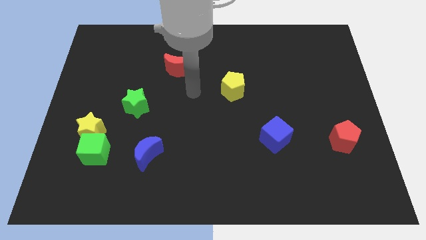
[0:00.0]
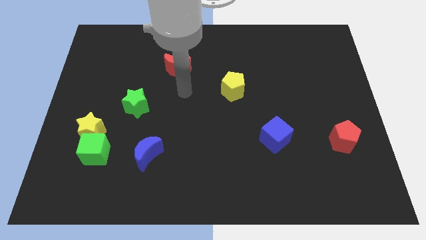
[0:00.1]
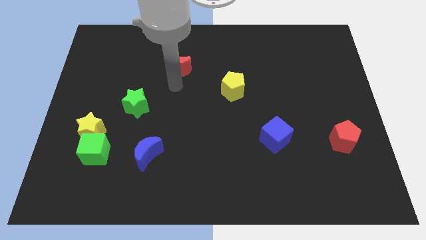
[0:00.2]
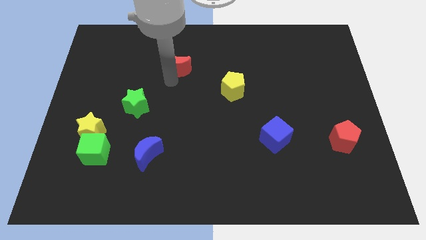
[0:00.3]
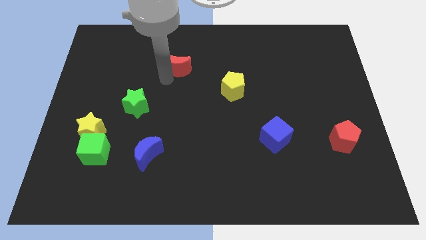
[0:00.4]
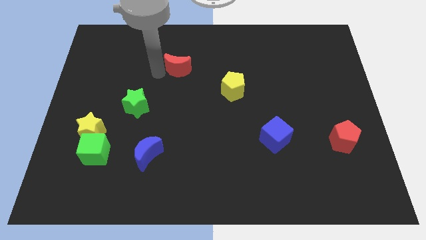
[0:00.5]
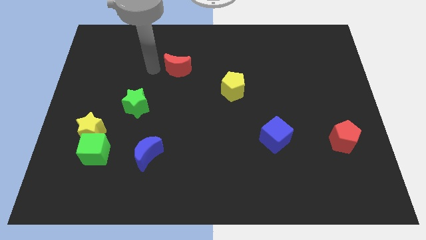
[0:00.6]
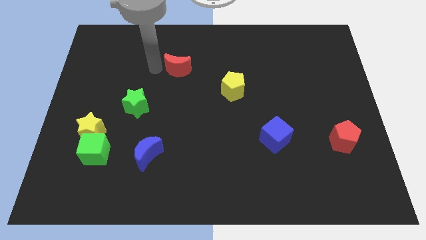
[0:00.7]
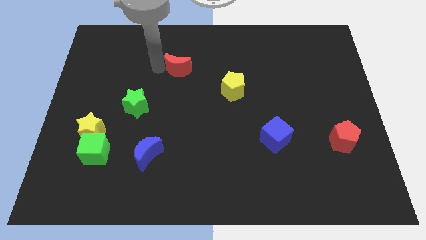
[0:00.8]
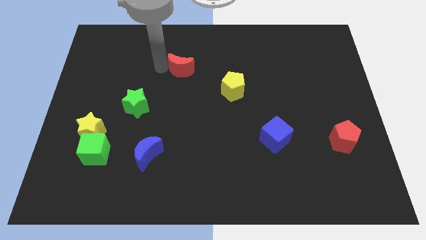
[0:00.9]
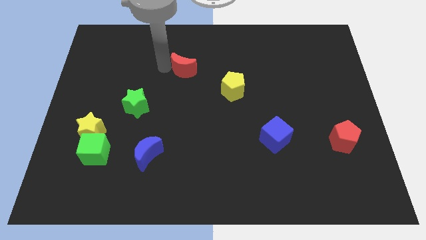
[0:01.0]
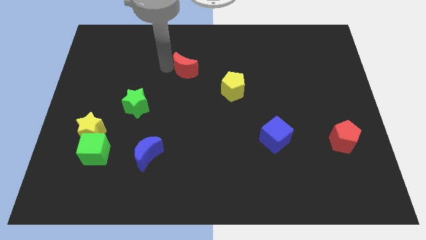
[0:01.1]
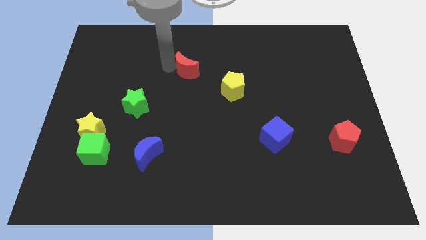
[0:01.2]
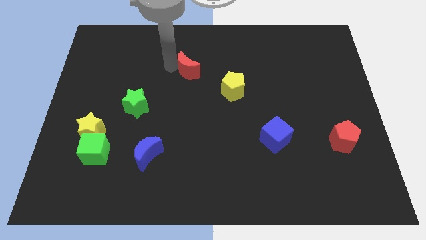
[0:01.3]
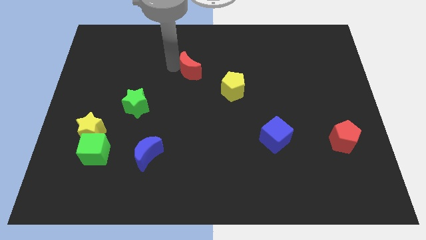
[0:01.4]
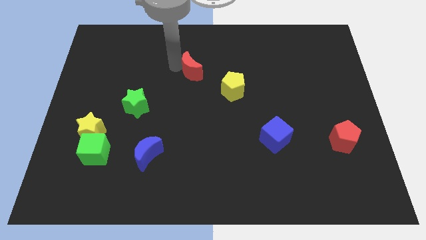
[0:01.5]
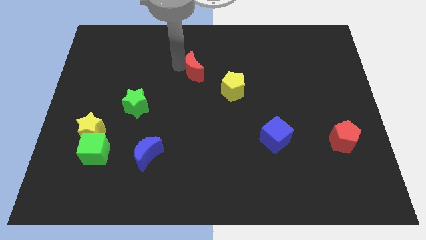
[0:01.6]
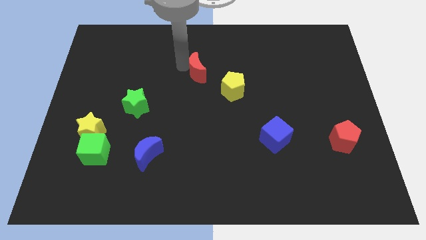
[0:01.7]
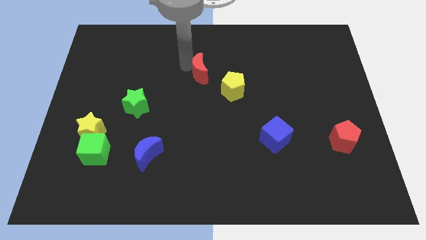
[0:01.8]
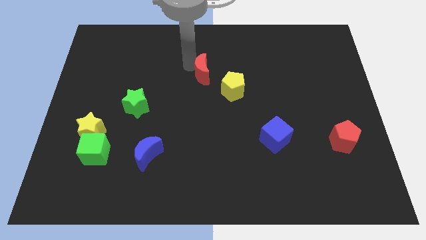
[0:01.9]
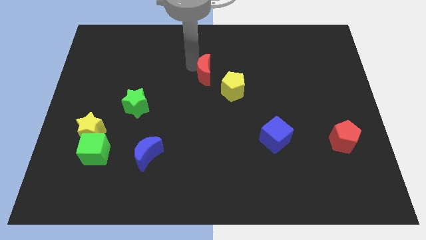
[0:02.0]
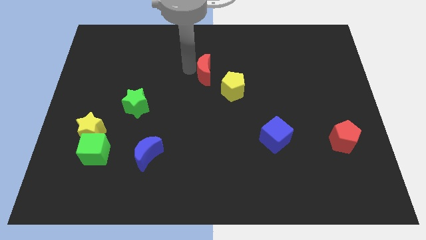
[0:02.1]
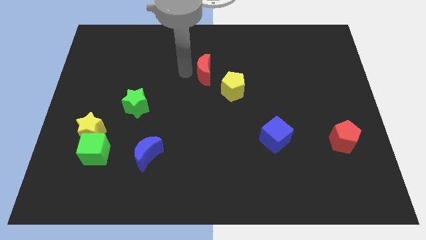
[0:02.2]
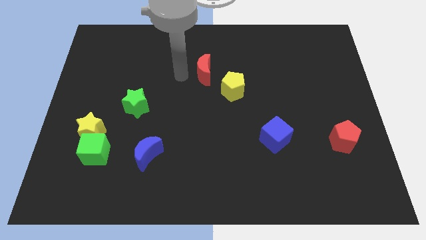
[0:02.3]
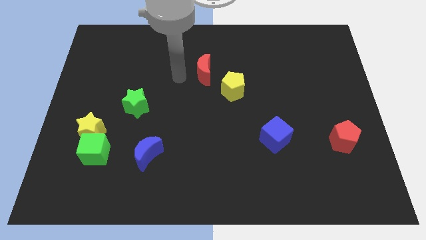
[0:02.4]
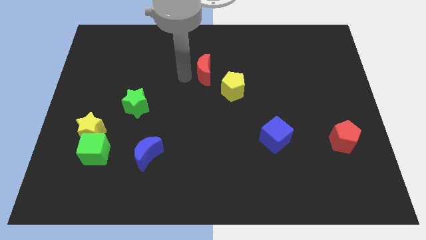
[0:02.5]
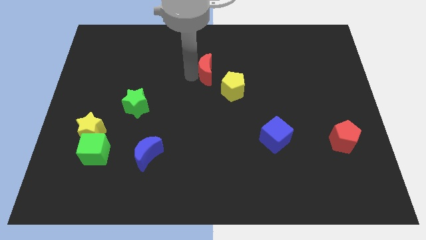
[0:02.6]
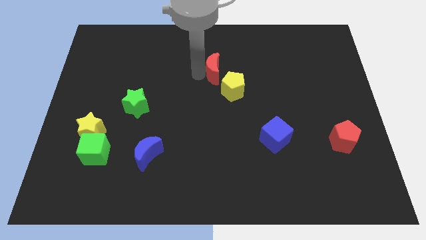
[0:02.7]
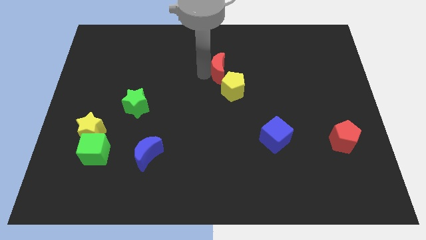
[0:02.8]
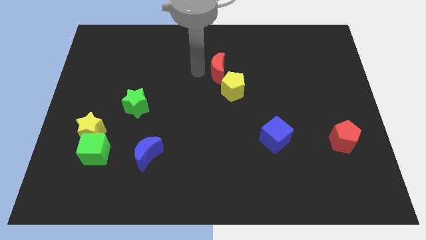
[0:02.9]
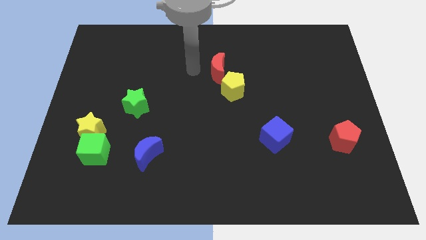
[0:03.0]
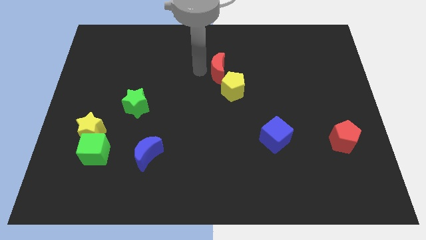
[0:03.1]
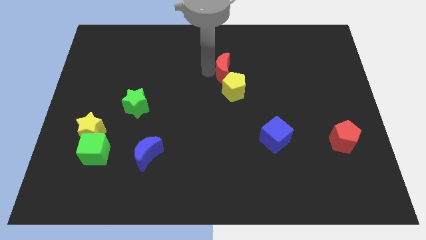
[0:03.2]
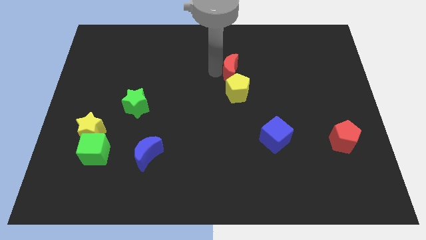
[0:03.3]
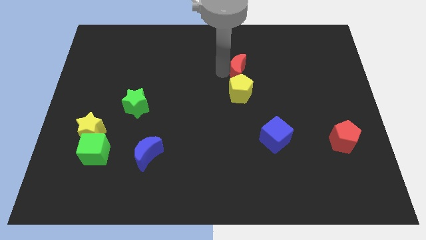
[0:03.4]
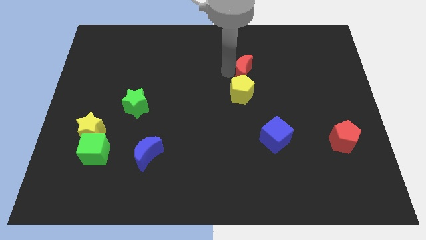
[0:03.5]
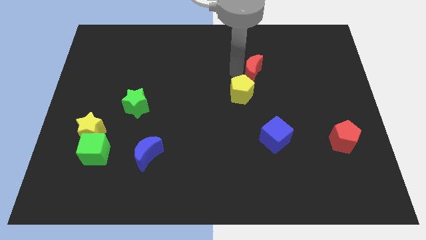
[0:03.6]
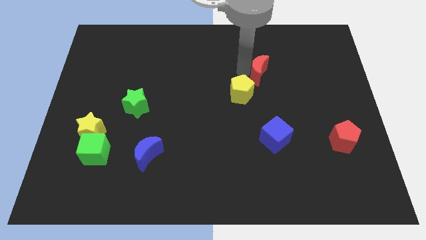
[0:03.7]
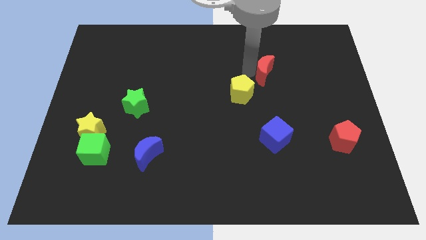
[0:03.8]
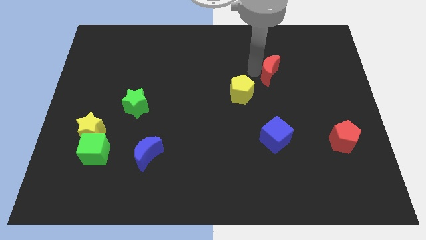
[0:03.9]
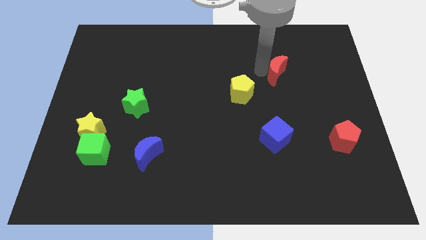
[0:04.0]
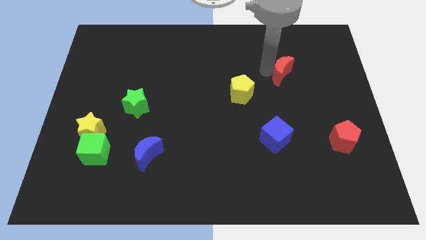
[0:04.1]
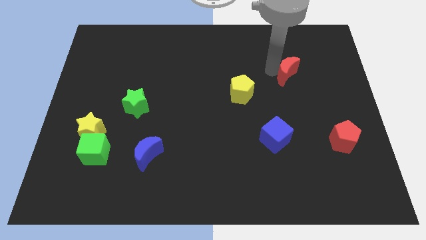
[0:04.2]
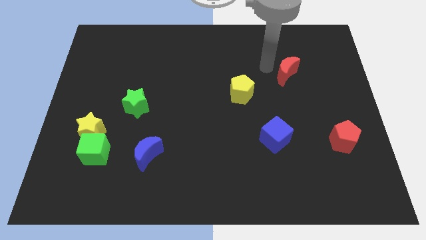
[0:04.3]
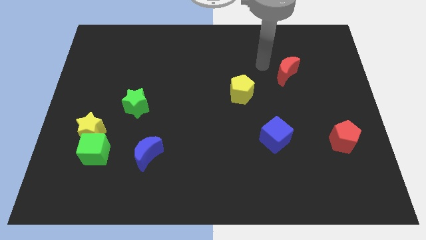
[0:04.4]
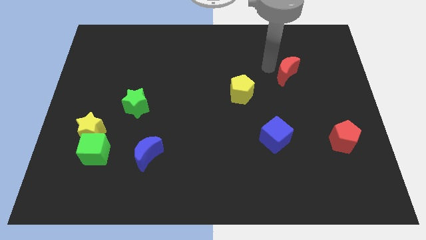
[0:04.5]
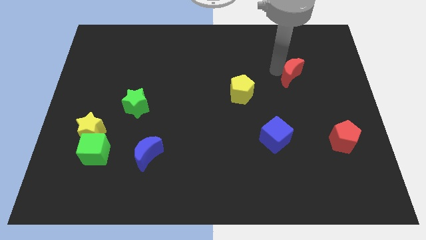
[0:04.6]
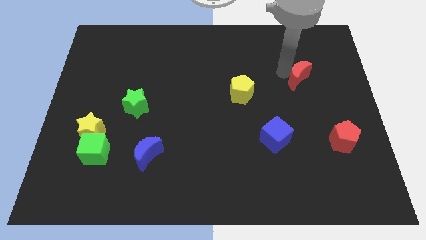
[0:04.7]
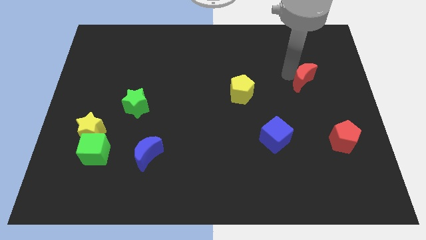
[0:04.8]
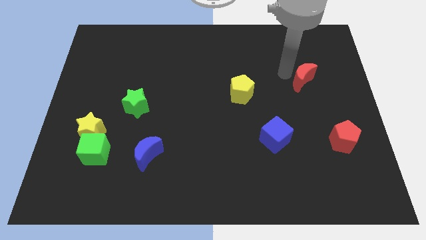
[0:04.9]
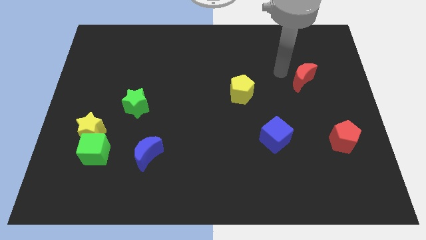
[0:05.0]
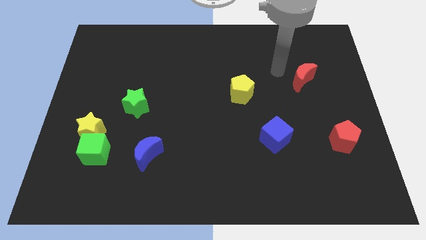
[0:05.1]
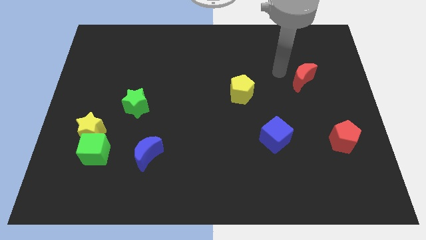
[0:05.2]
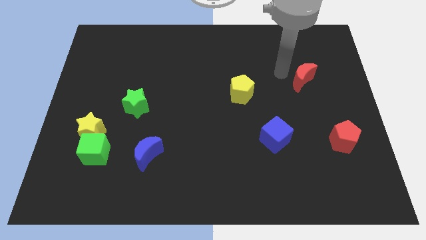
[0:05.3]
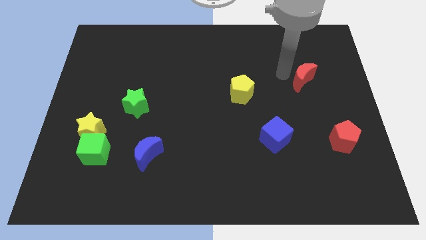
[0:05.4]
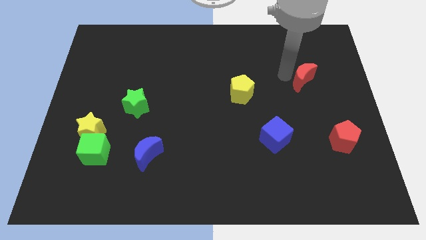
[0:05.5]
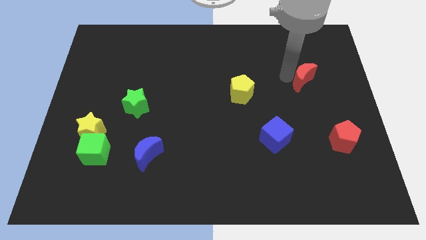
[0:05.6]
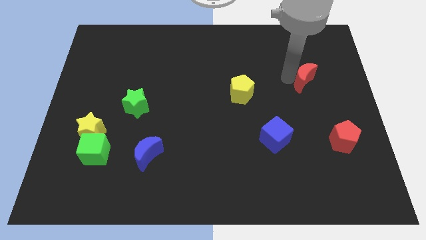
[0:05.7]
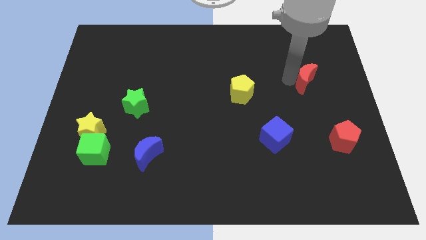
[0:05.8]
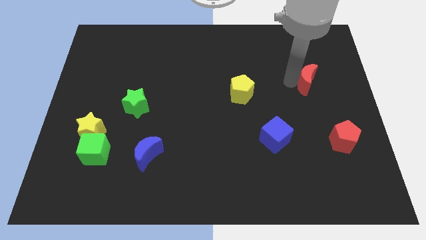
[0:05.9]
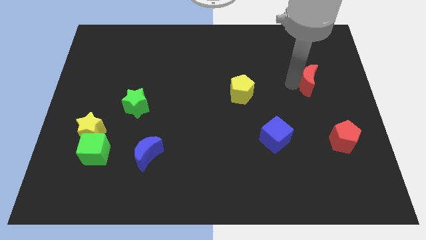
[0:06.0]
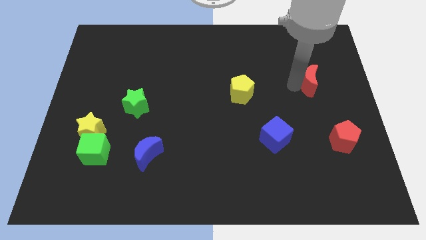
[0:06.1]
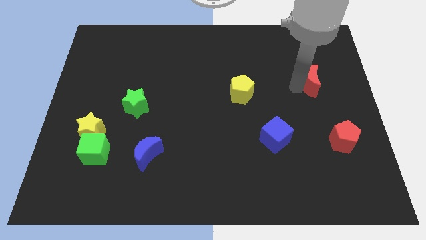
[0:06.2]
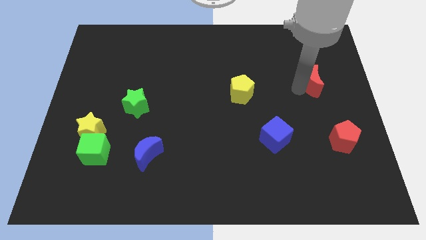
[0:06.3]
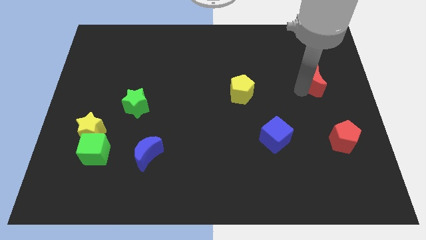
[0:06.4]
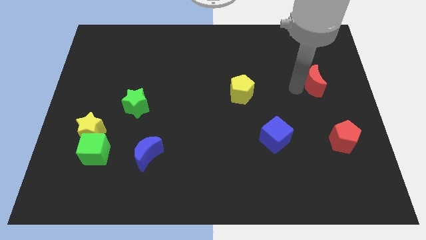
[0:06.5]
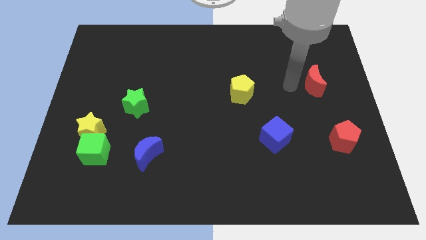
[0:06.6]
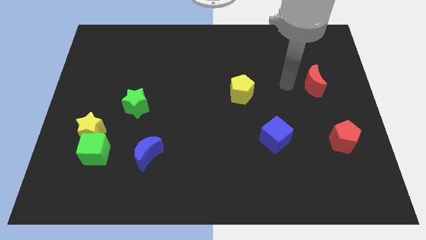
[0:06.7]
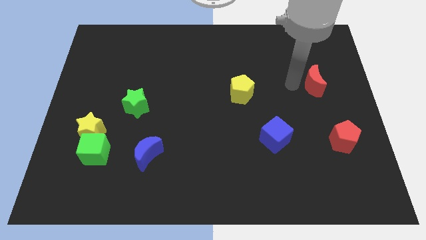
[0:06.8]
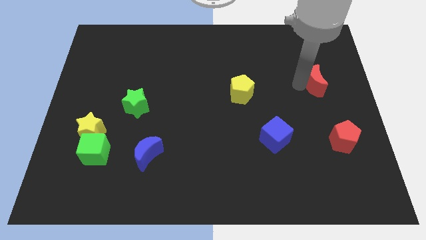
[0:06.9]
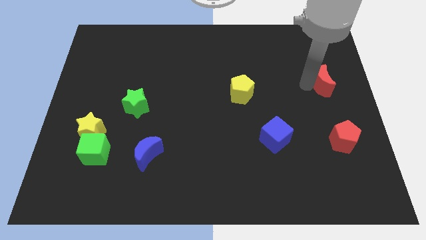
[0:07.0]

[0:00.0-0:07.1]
move the red moon to the right side of the board
